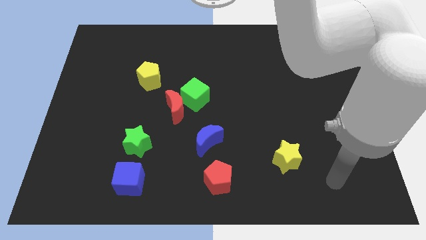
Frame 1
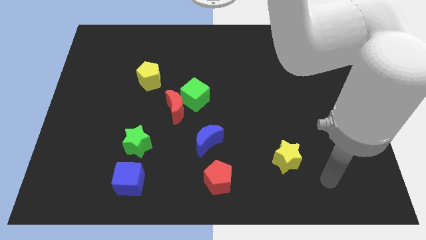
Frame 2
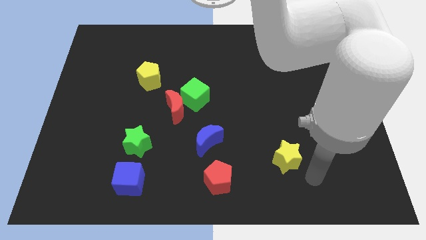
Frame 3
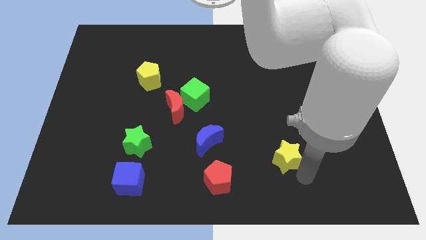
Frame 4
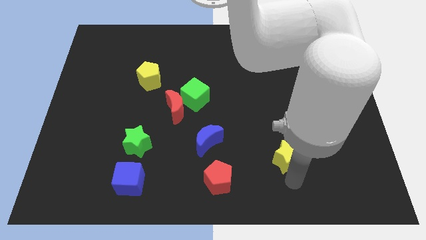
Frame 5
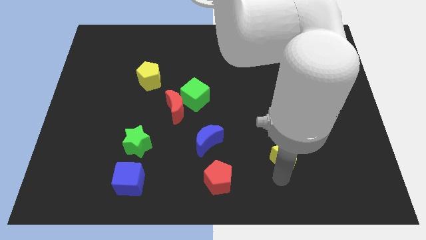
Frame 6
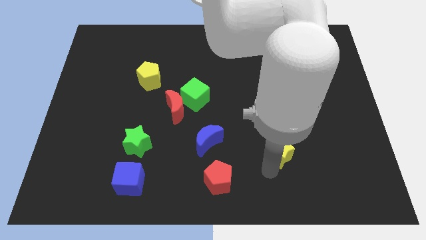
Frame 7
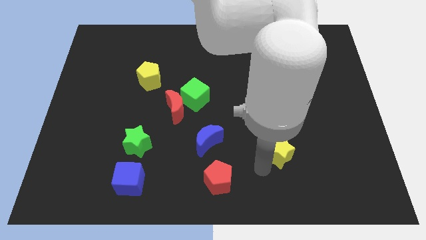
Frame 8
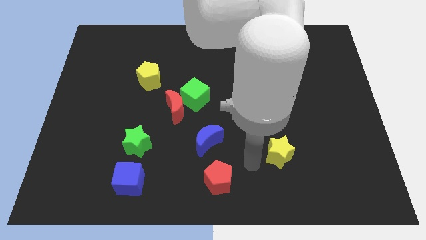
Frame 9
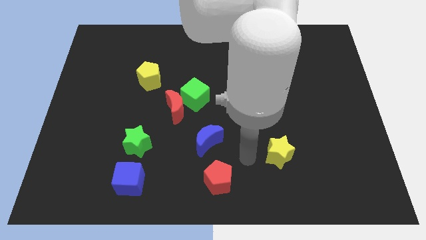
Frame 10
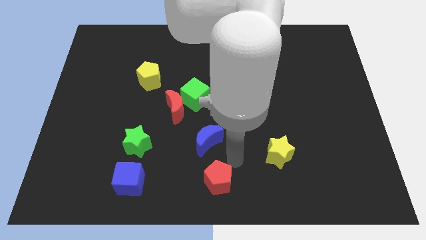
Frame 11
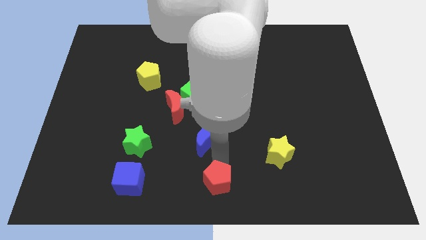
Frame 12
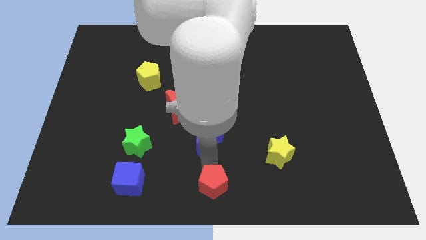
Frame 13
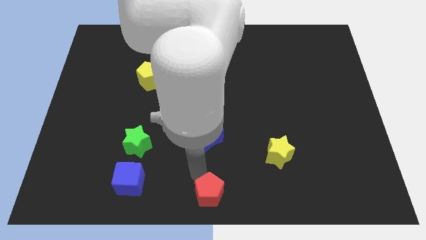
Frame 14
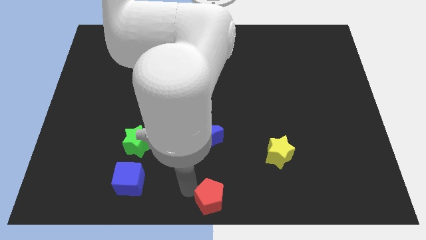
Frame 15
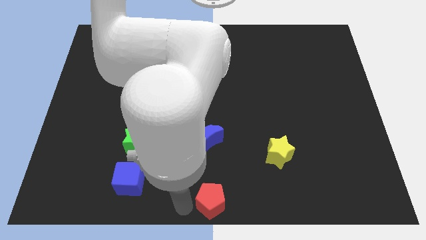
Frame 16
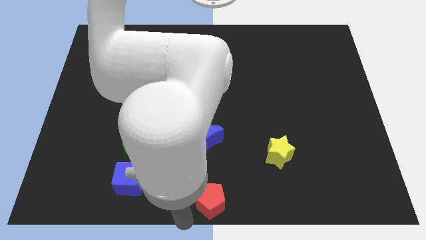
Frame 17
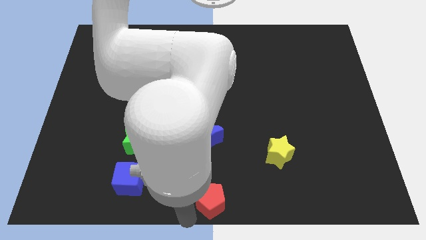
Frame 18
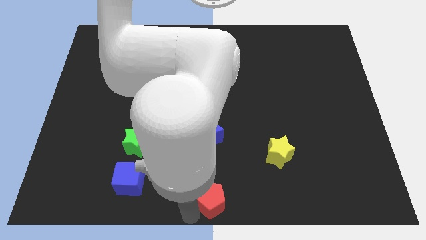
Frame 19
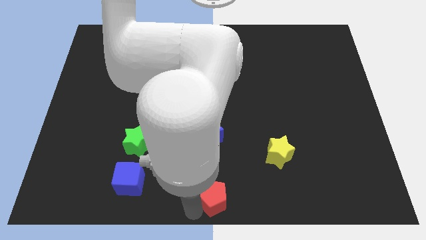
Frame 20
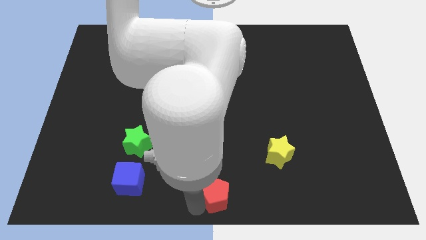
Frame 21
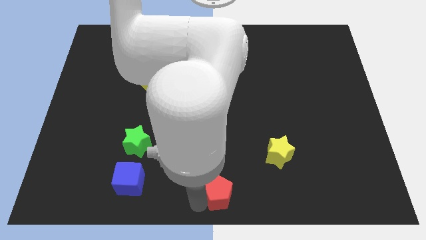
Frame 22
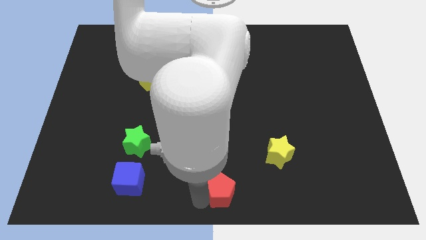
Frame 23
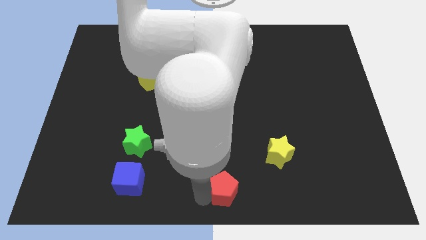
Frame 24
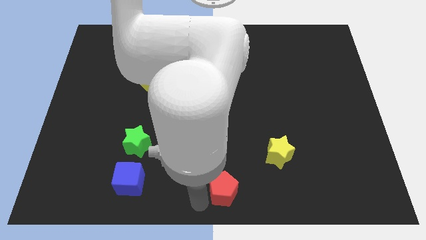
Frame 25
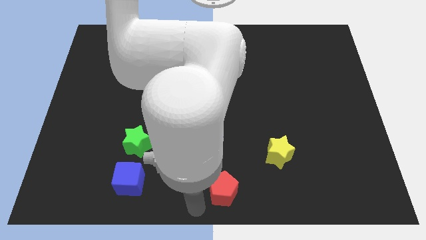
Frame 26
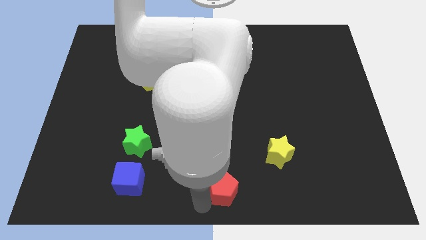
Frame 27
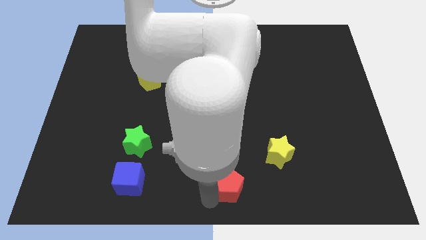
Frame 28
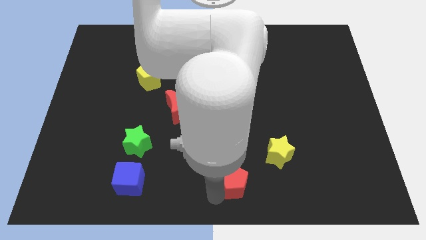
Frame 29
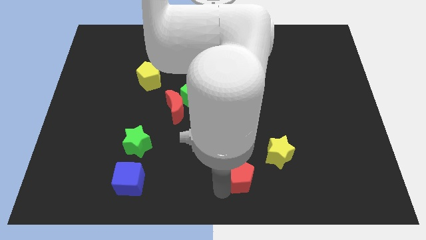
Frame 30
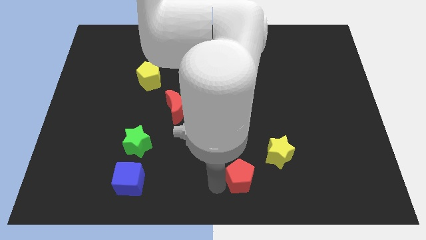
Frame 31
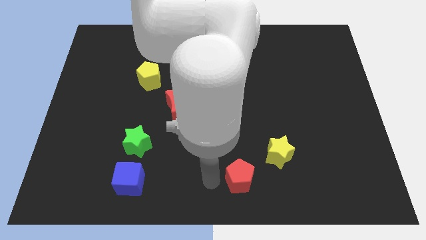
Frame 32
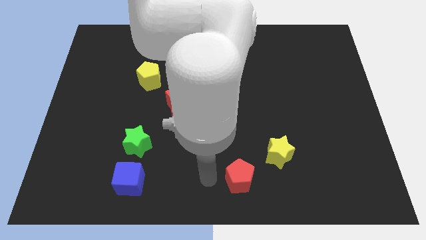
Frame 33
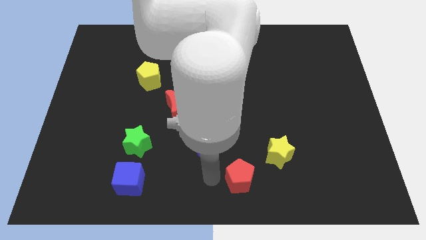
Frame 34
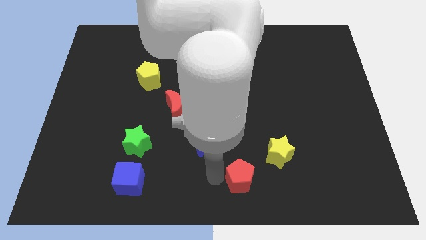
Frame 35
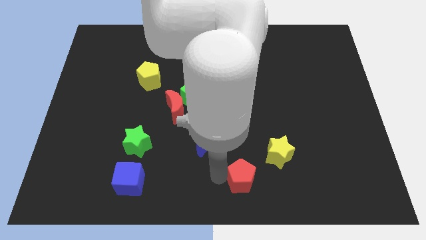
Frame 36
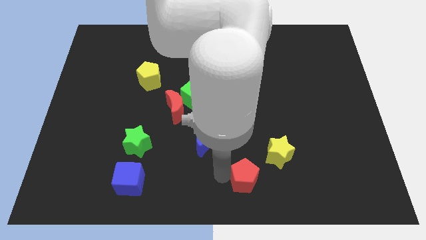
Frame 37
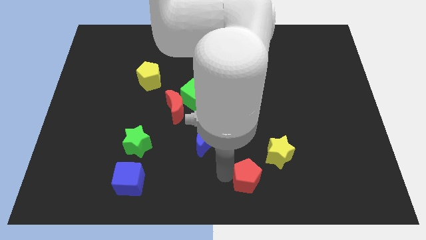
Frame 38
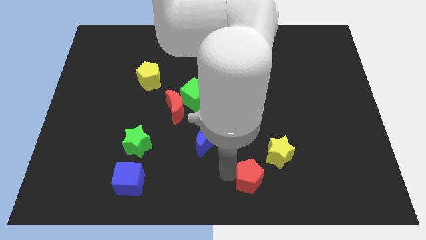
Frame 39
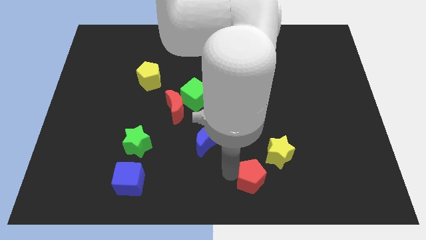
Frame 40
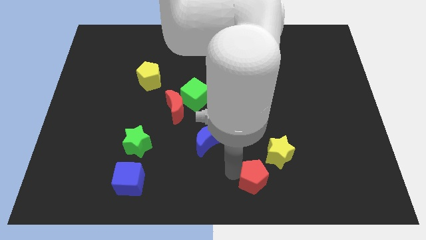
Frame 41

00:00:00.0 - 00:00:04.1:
slightly slide the red pentagon to the right

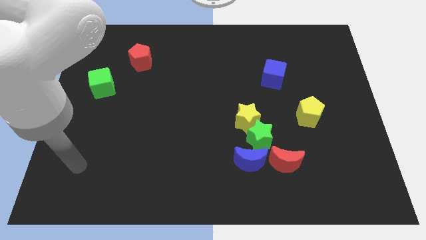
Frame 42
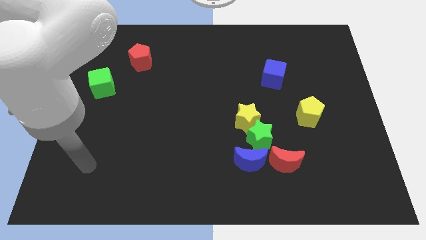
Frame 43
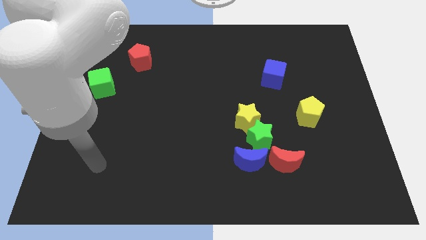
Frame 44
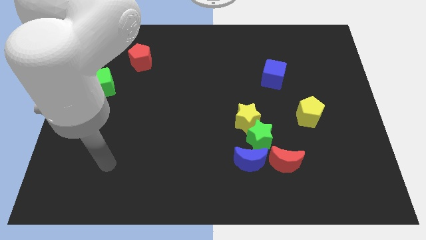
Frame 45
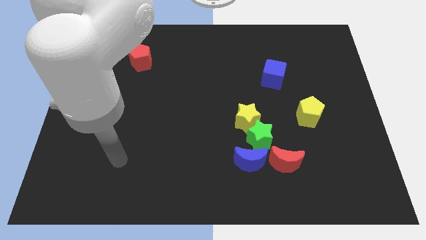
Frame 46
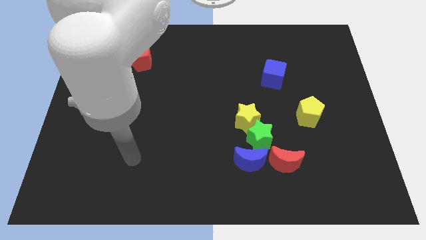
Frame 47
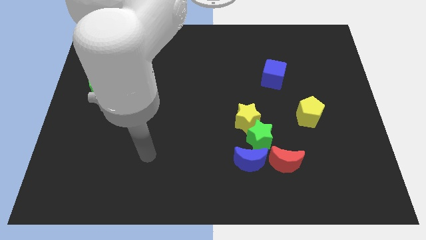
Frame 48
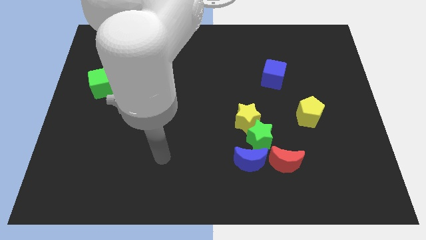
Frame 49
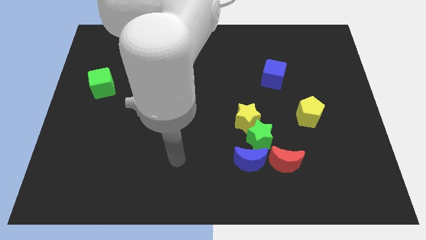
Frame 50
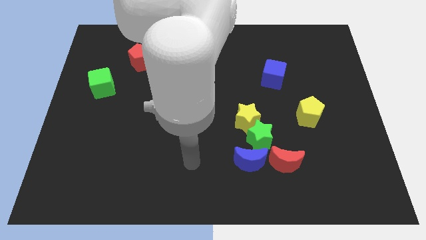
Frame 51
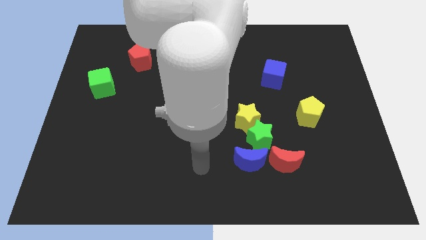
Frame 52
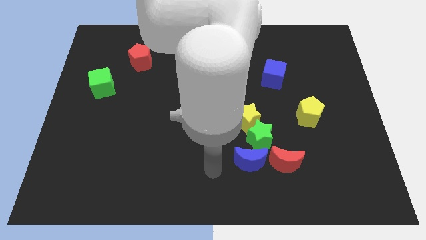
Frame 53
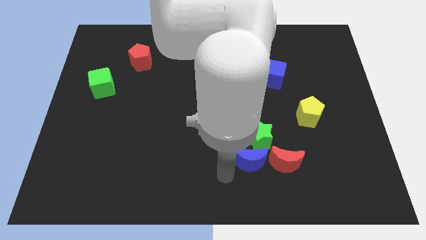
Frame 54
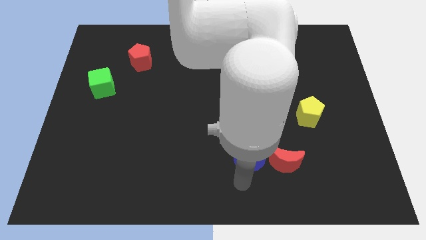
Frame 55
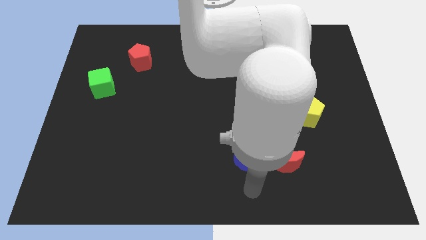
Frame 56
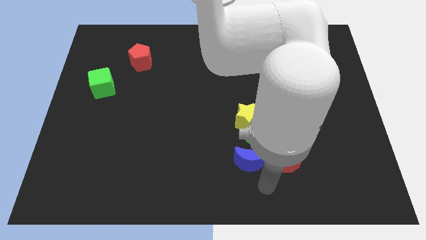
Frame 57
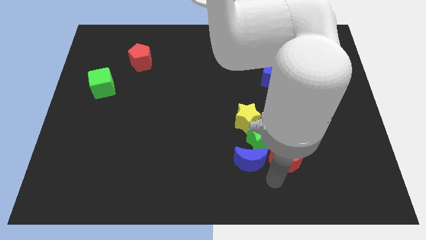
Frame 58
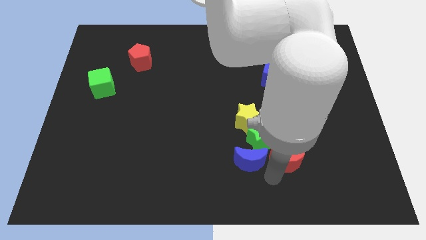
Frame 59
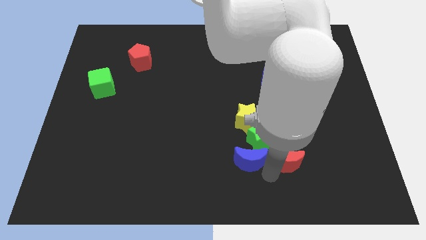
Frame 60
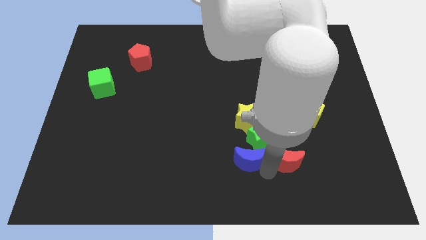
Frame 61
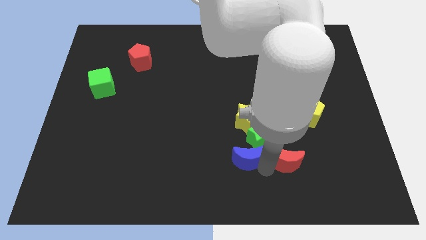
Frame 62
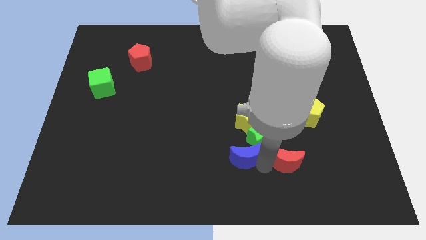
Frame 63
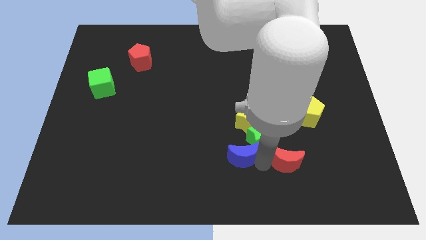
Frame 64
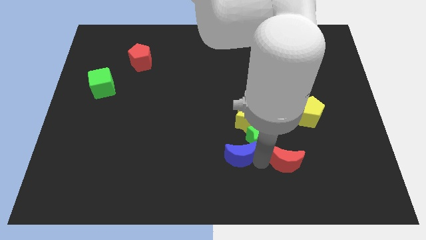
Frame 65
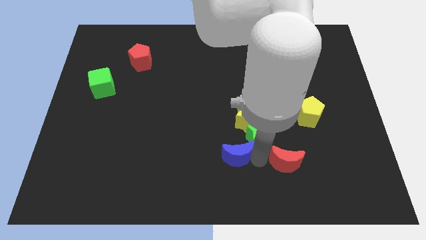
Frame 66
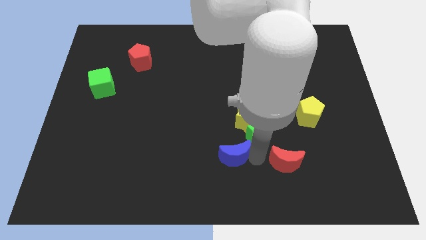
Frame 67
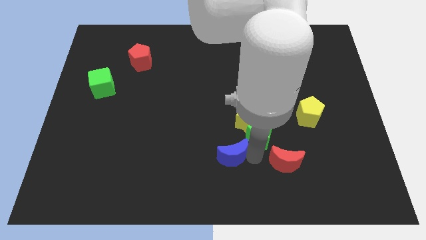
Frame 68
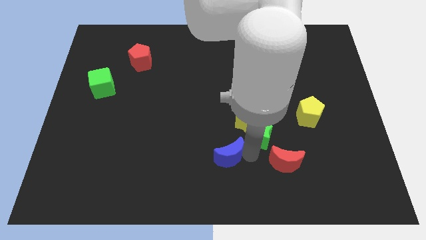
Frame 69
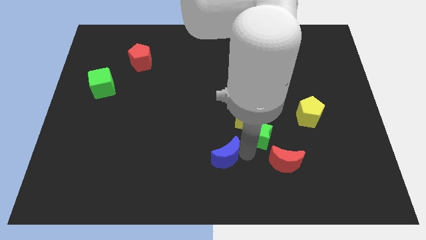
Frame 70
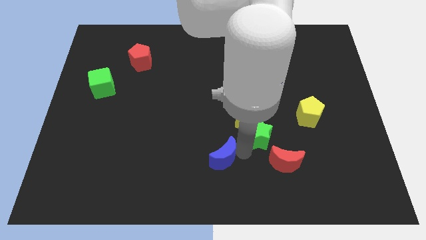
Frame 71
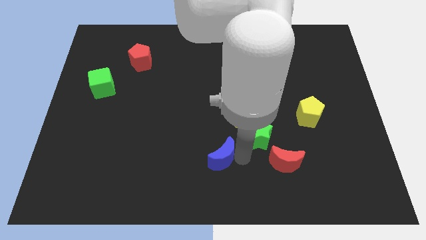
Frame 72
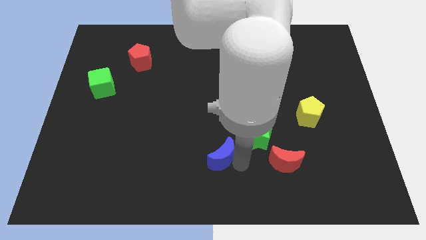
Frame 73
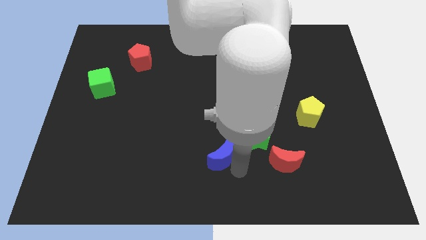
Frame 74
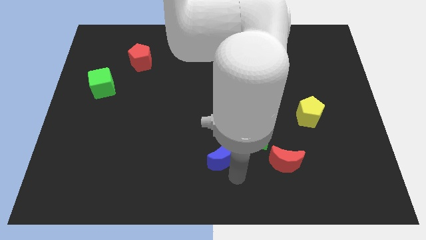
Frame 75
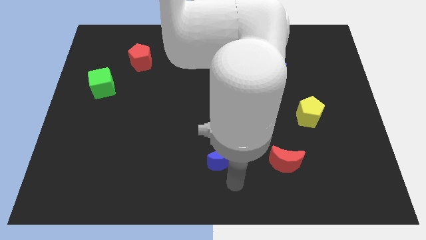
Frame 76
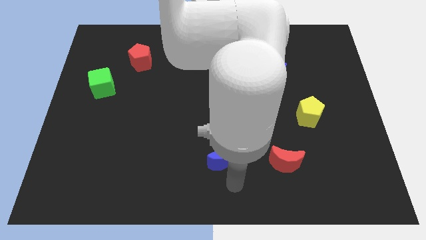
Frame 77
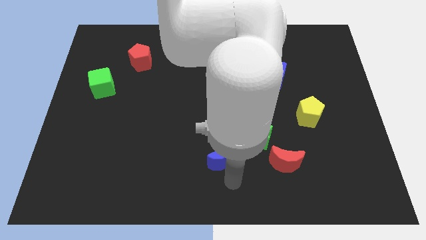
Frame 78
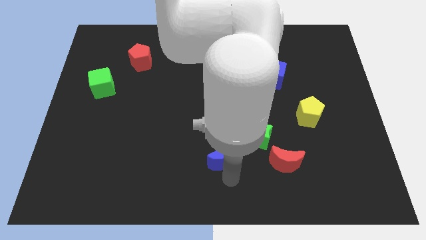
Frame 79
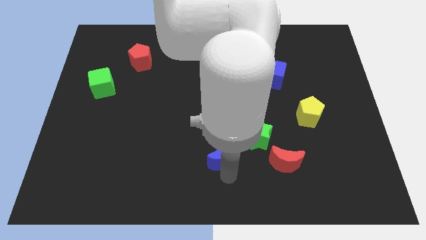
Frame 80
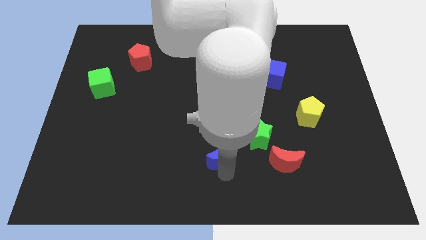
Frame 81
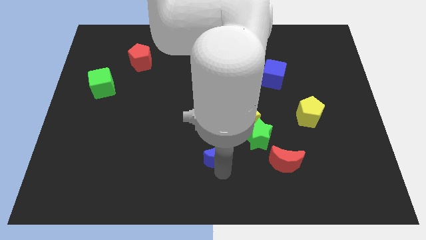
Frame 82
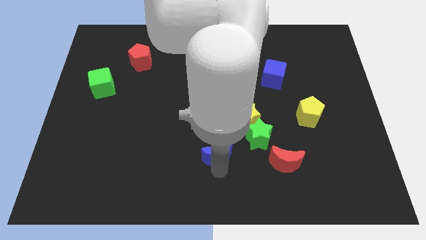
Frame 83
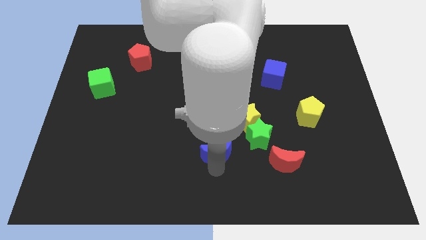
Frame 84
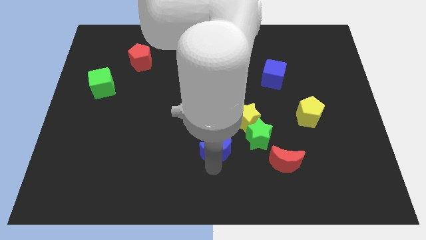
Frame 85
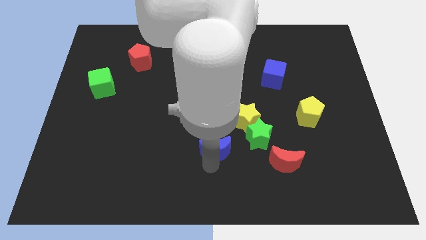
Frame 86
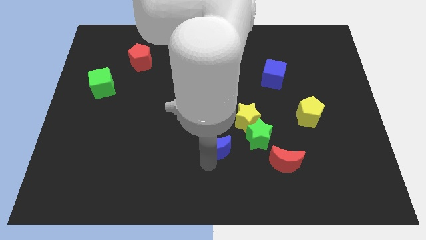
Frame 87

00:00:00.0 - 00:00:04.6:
slightly move the blue moon up and left diagonally
